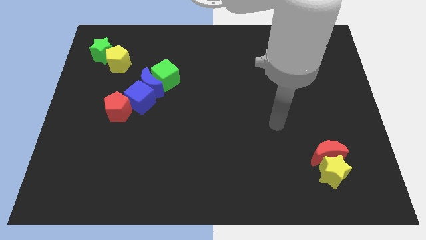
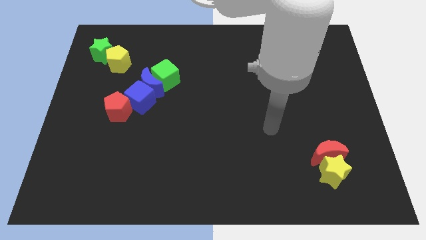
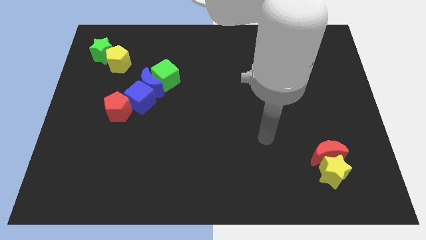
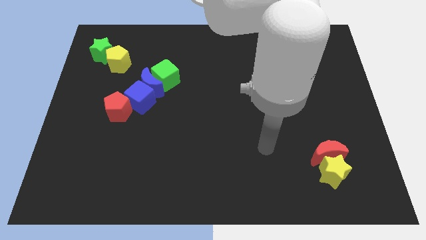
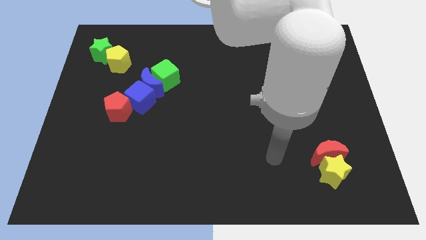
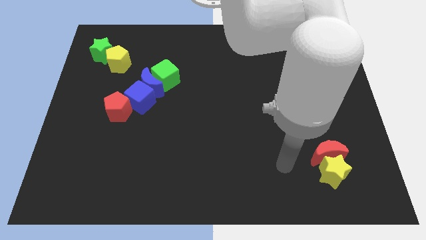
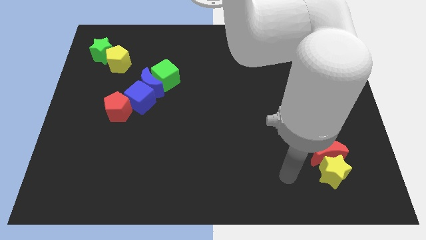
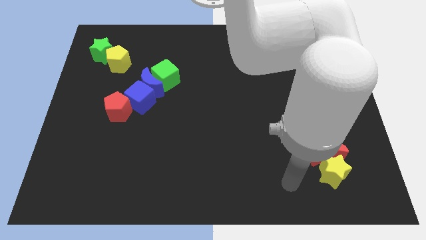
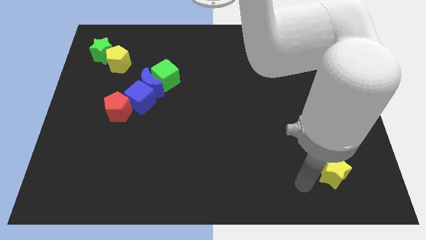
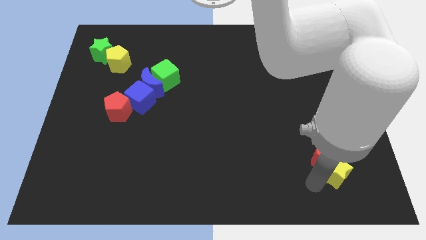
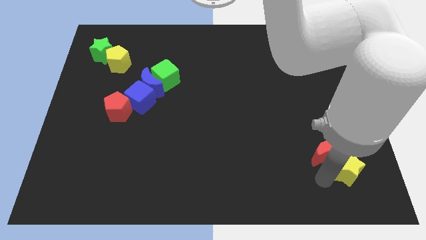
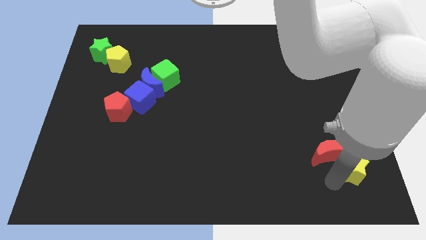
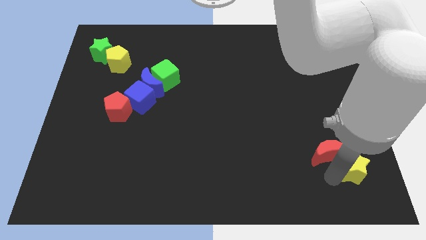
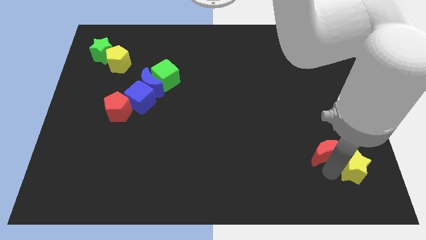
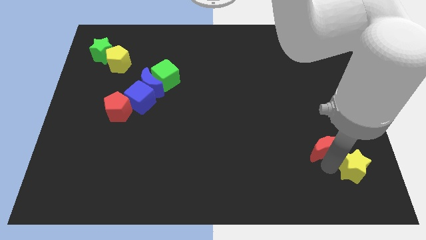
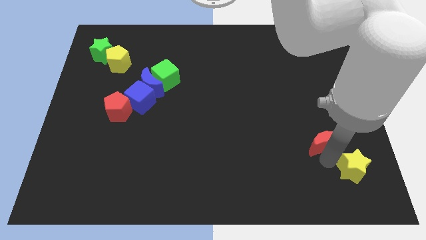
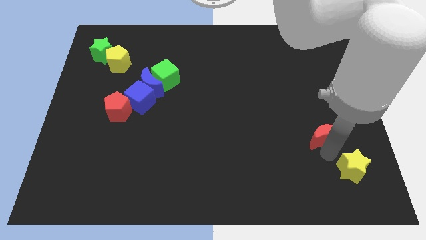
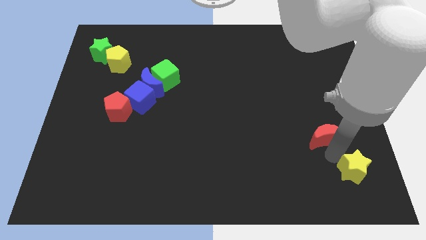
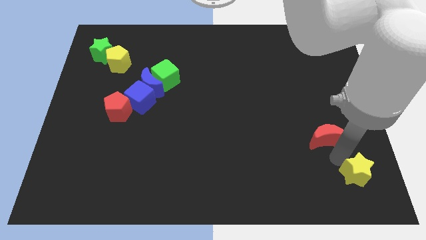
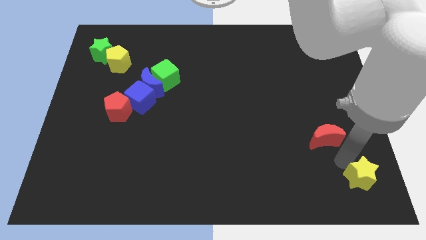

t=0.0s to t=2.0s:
pull the red moon apart from the yellow star

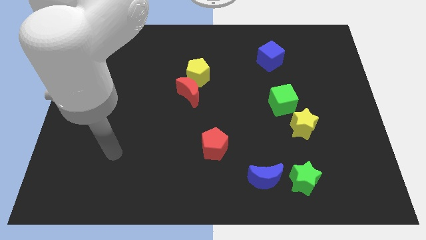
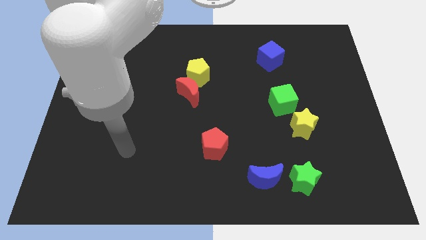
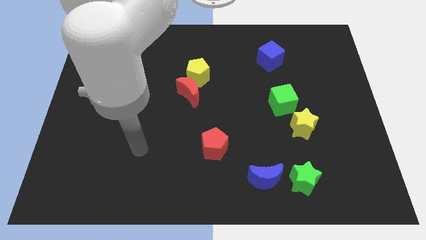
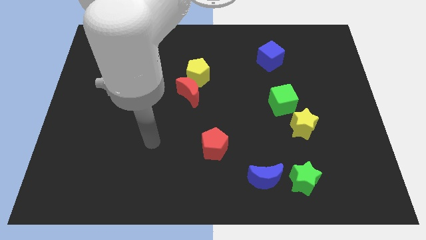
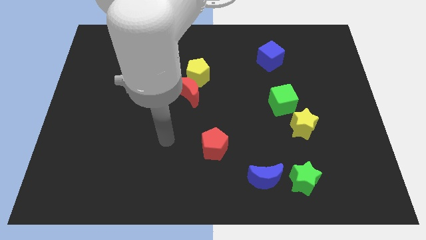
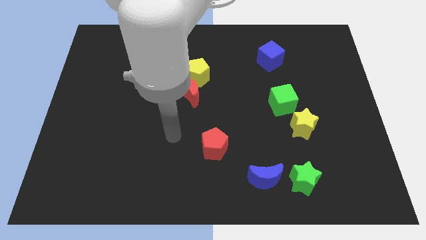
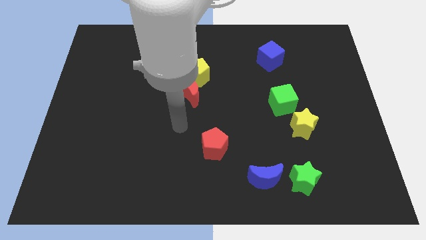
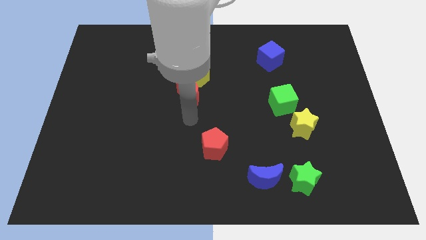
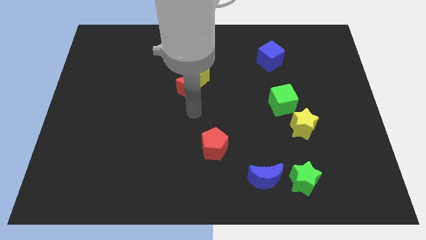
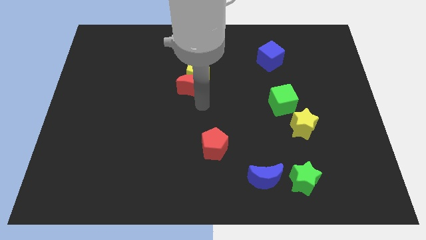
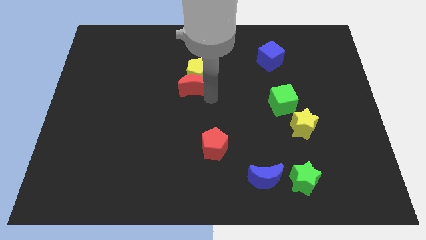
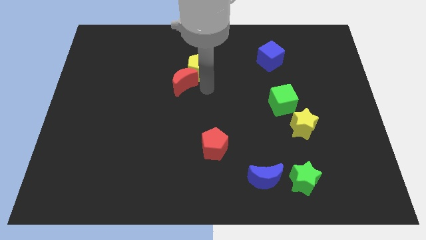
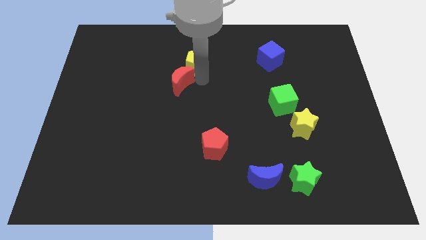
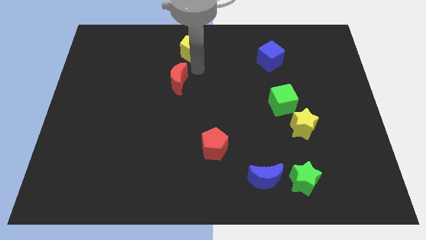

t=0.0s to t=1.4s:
pull the red moon apart from the yellow pentagon

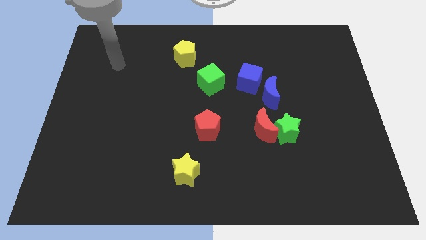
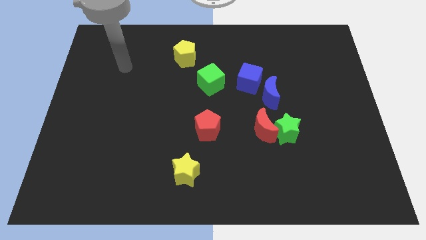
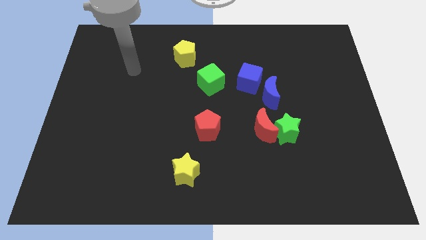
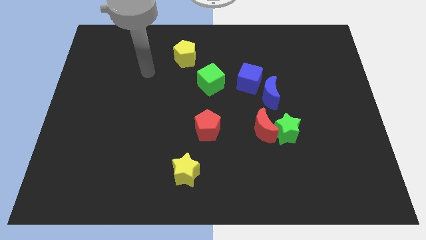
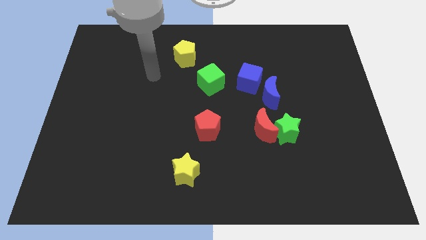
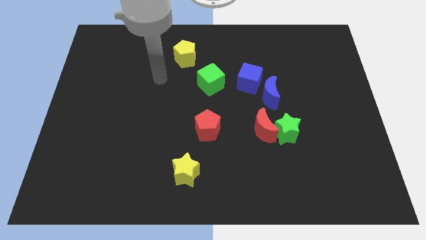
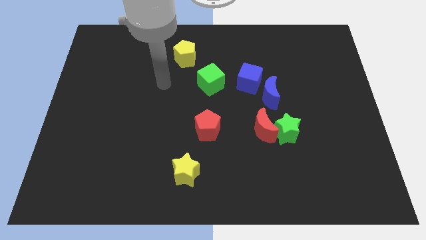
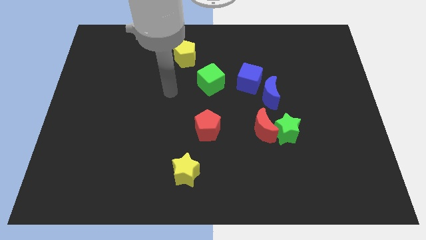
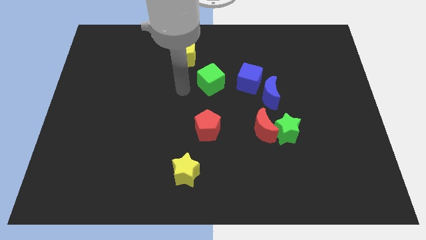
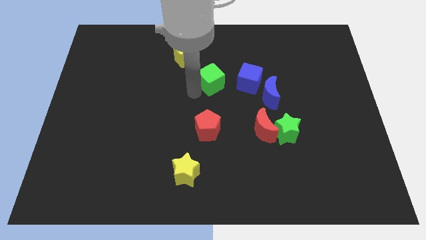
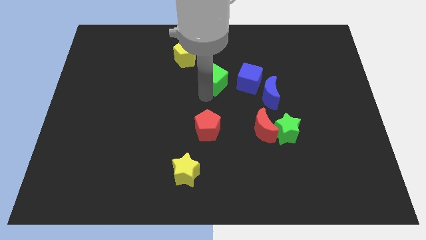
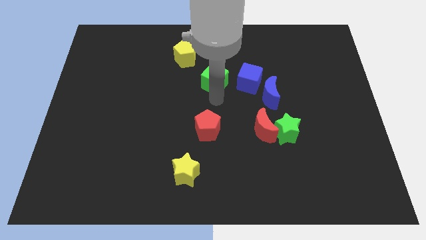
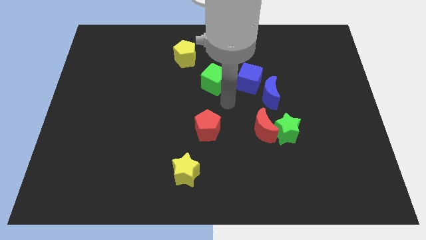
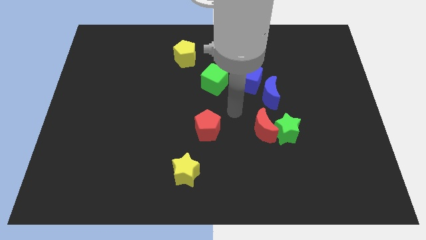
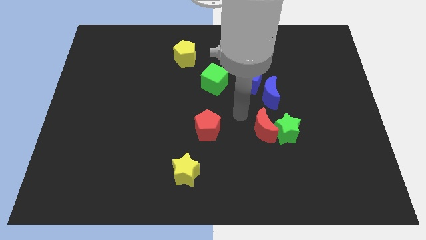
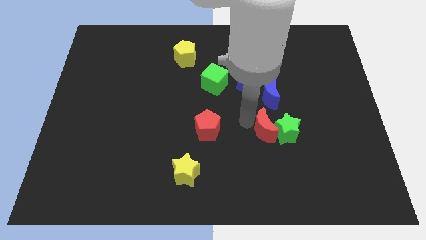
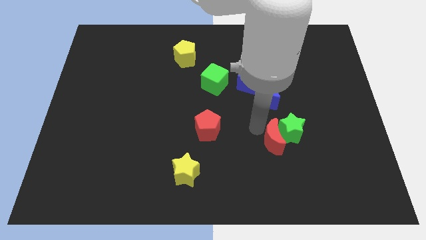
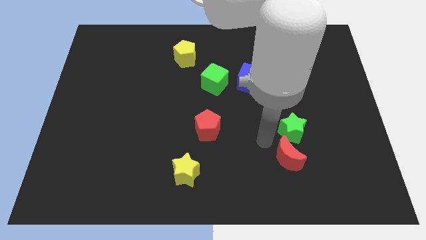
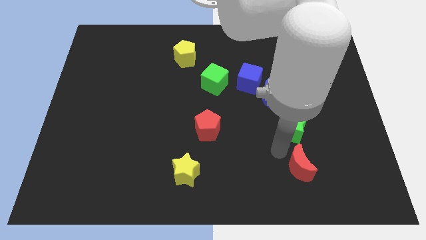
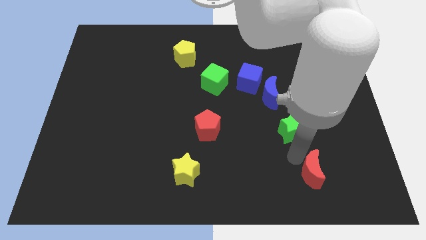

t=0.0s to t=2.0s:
separate the green star from the red moon

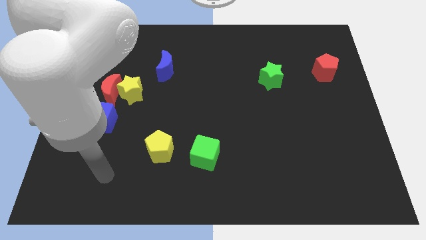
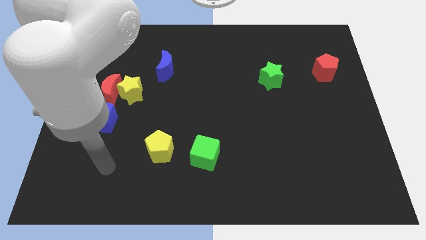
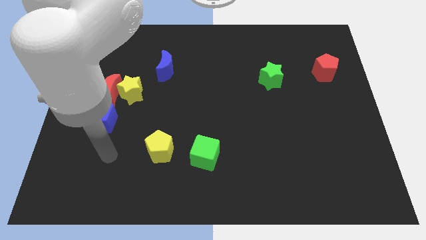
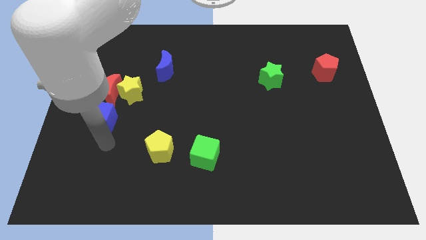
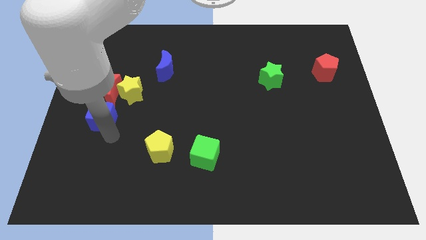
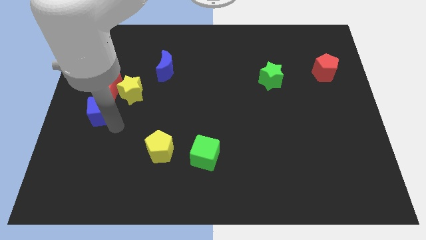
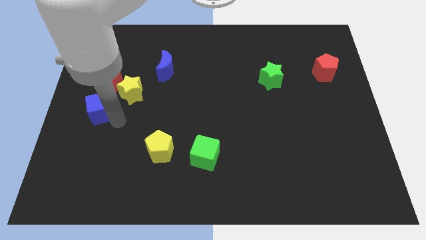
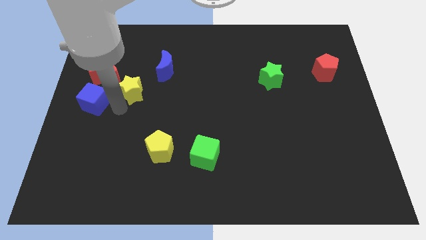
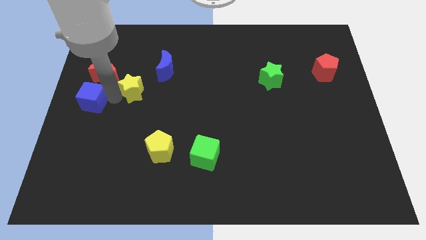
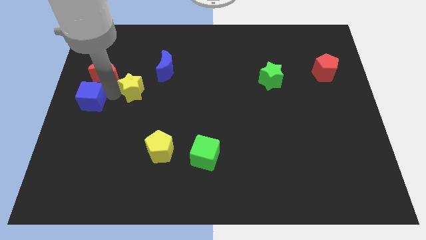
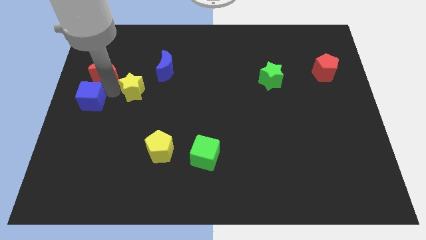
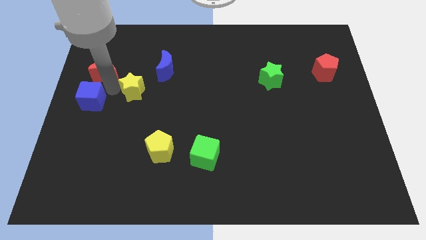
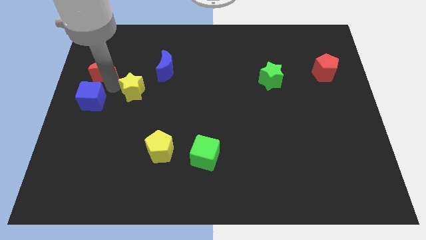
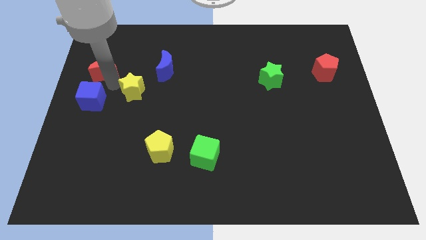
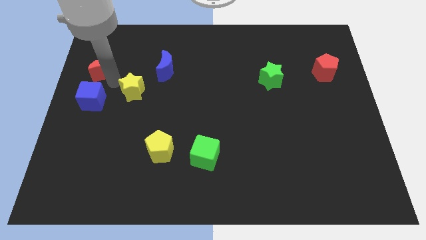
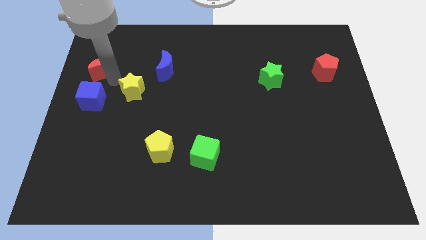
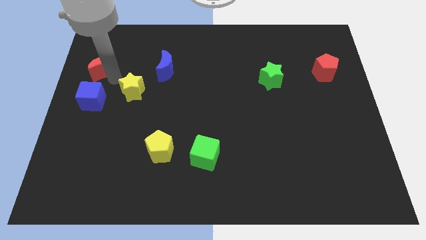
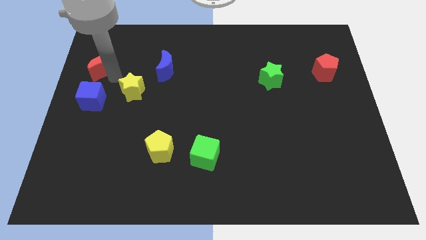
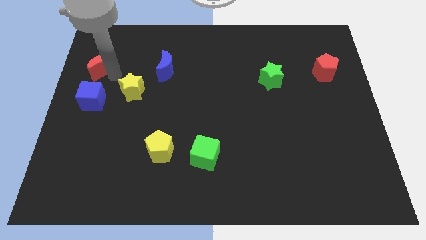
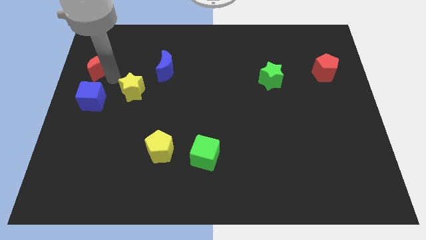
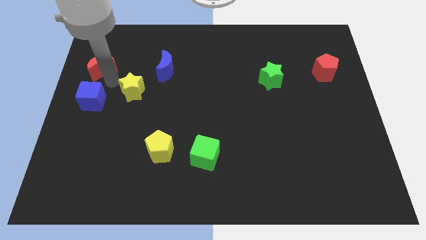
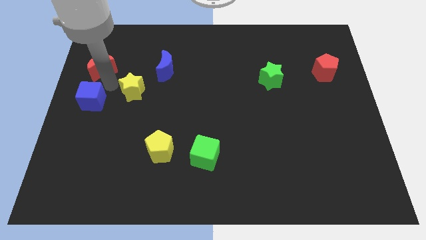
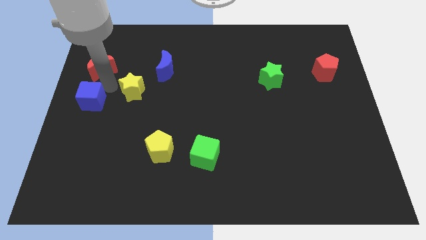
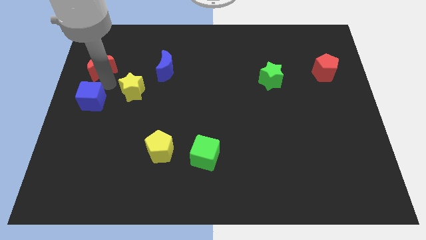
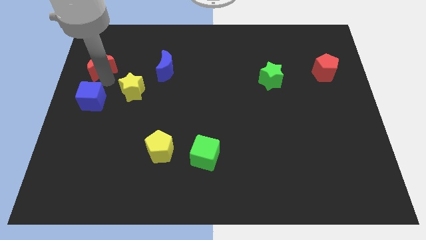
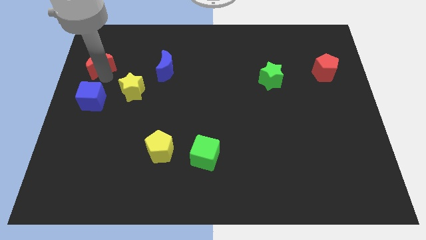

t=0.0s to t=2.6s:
separate the red moon from the yellow star and blue cube

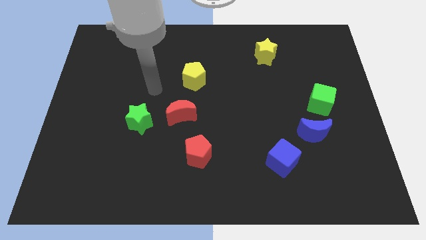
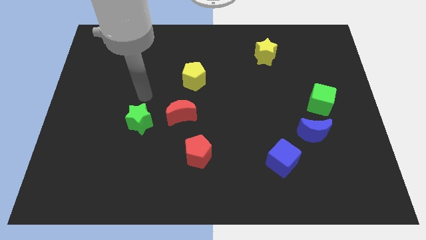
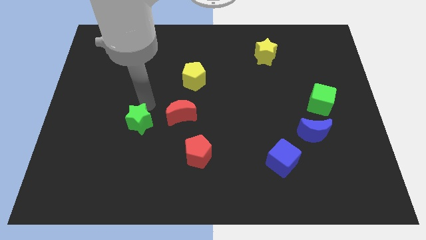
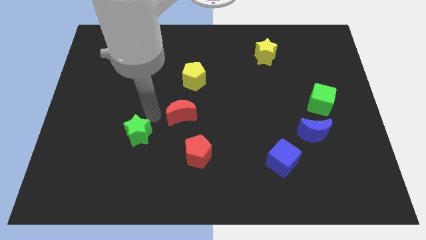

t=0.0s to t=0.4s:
separate the red moon from the green star

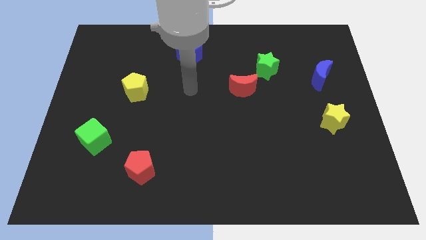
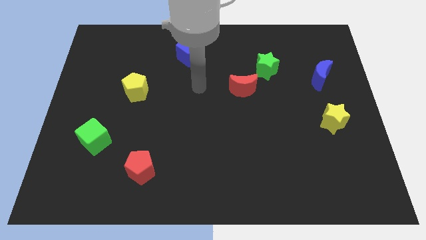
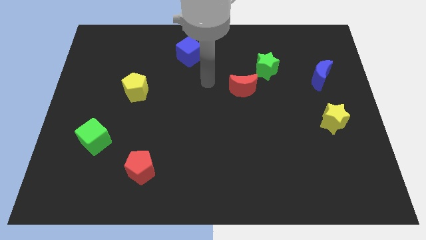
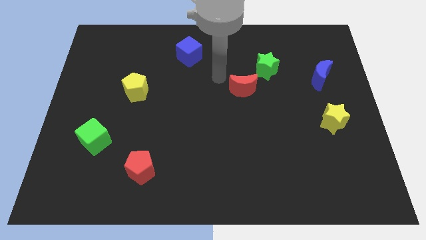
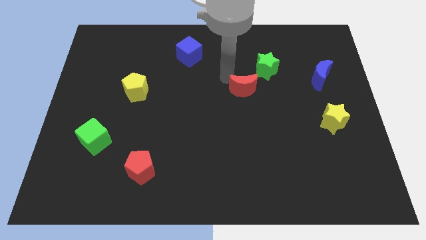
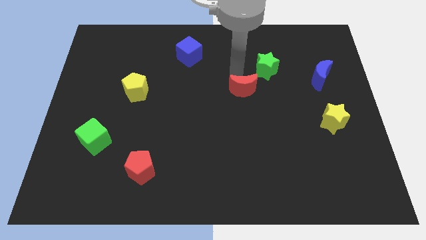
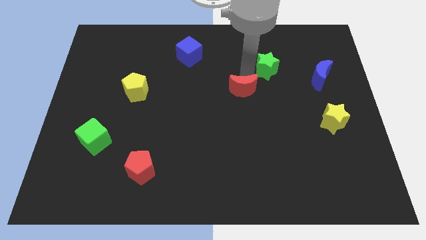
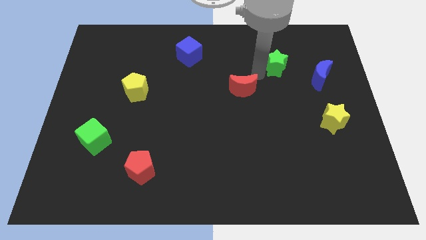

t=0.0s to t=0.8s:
move the red moon away from the green star
